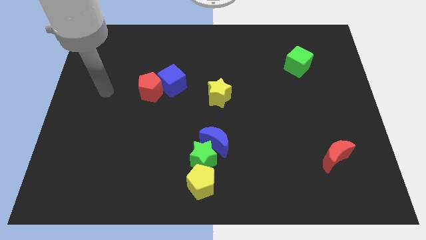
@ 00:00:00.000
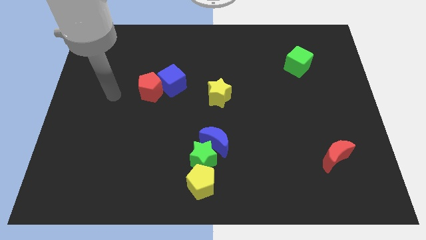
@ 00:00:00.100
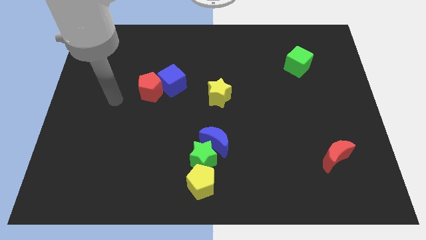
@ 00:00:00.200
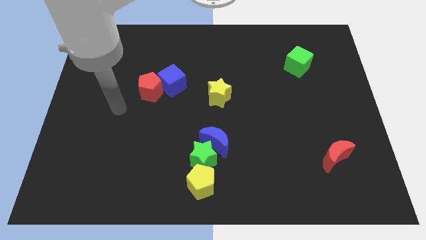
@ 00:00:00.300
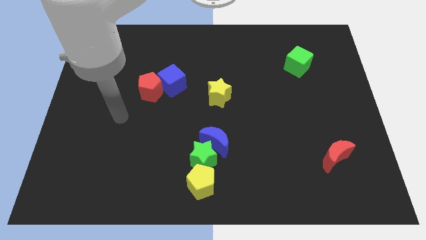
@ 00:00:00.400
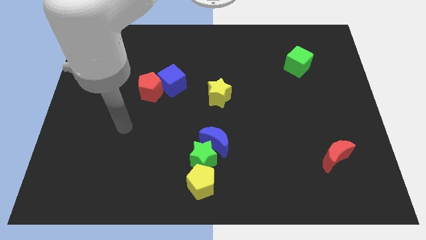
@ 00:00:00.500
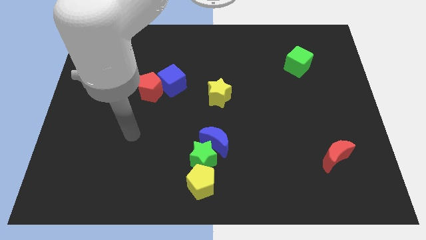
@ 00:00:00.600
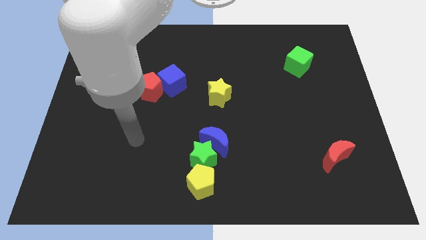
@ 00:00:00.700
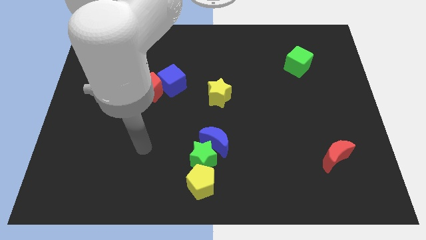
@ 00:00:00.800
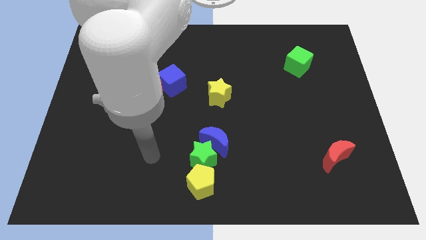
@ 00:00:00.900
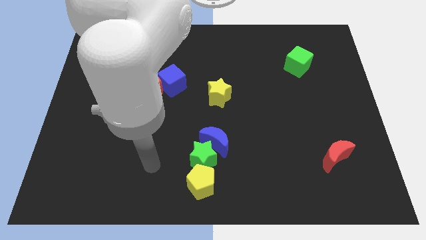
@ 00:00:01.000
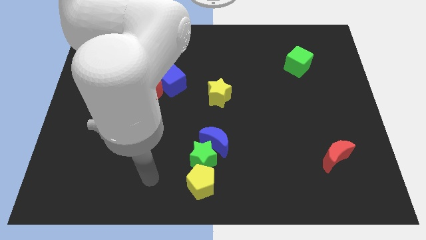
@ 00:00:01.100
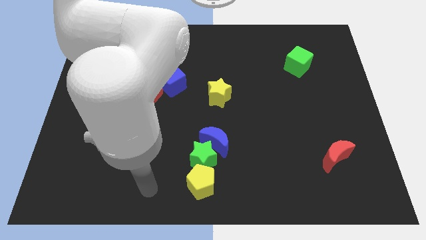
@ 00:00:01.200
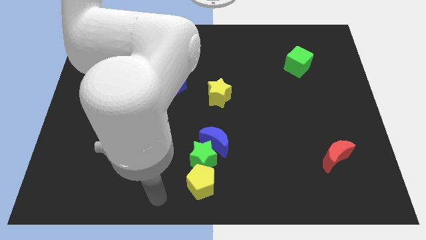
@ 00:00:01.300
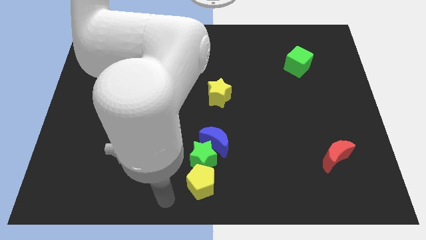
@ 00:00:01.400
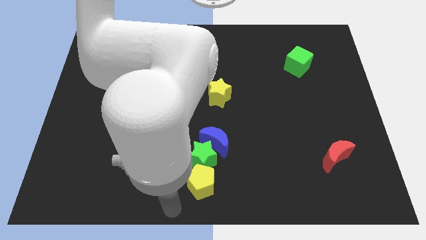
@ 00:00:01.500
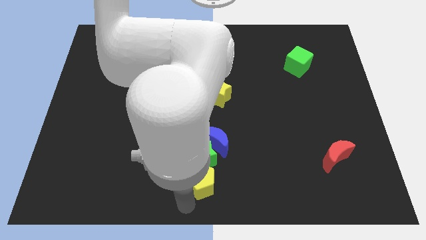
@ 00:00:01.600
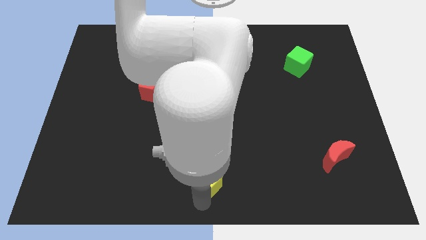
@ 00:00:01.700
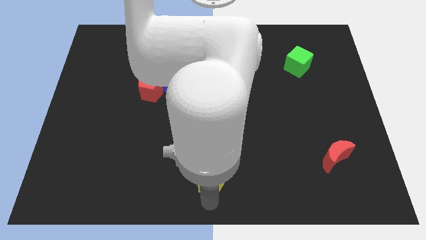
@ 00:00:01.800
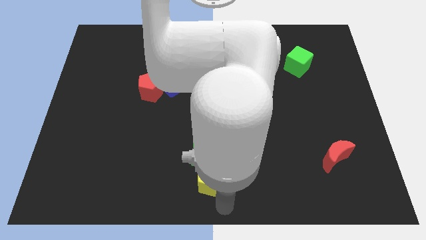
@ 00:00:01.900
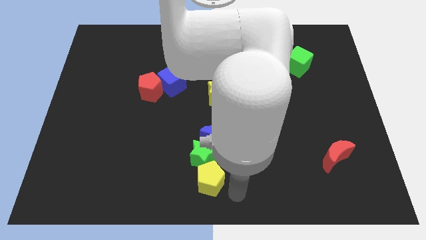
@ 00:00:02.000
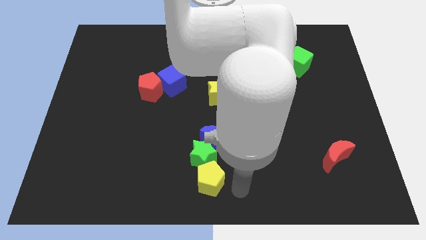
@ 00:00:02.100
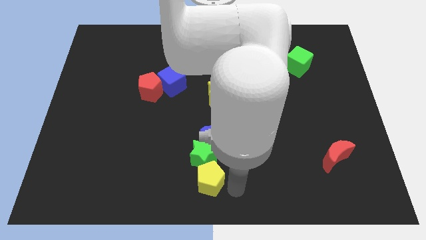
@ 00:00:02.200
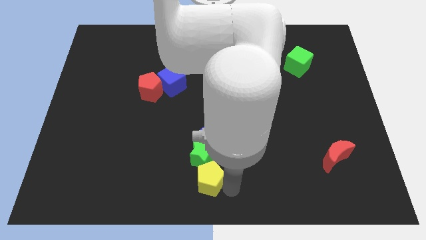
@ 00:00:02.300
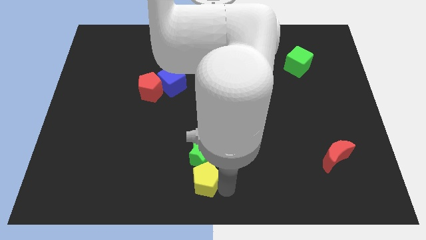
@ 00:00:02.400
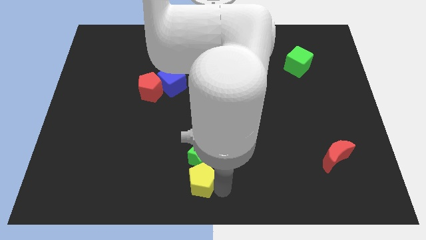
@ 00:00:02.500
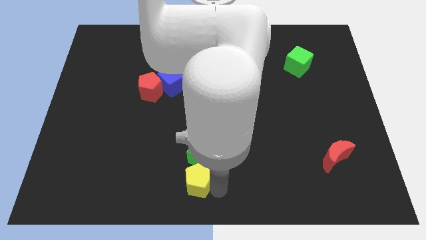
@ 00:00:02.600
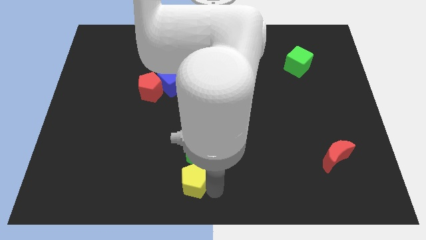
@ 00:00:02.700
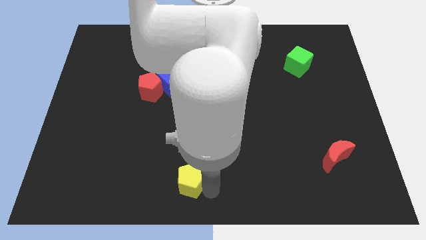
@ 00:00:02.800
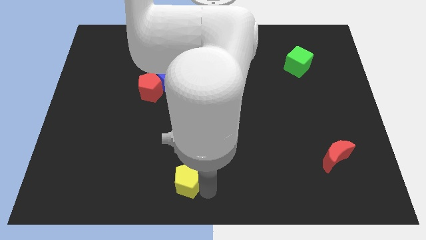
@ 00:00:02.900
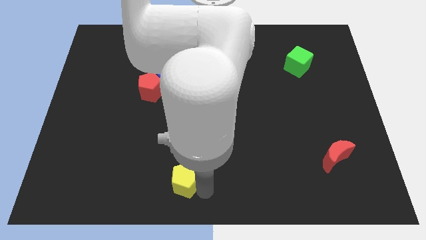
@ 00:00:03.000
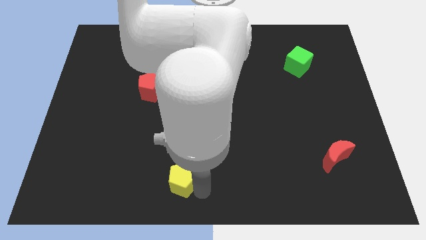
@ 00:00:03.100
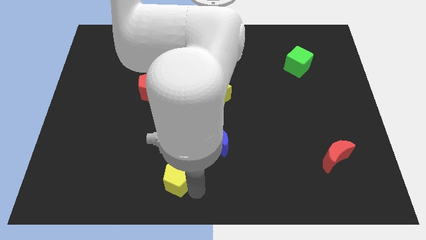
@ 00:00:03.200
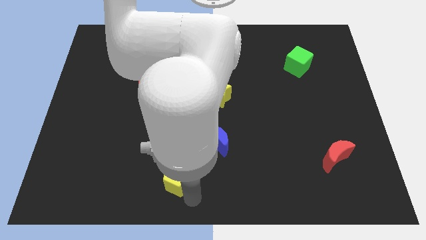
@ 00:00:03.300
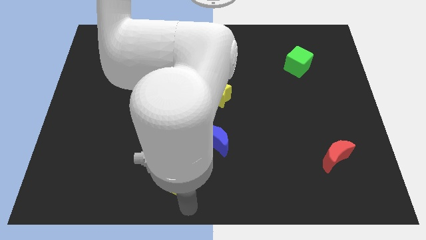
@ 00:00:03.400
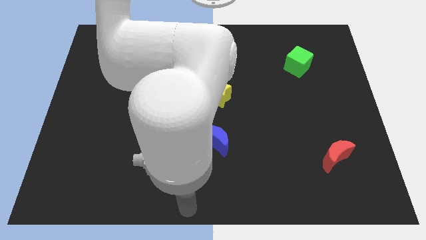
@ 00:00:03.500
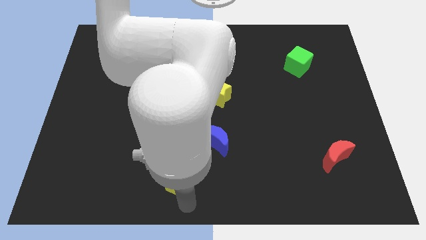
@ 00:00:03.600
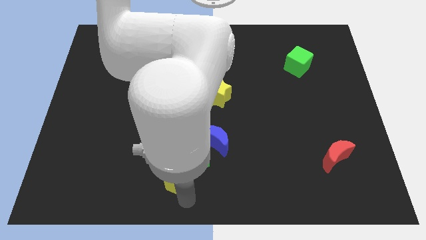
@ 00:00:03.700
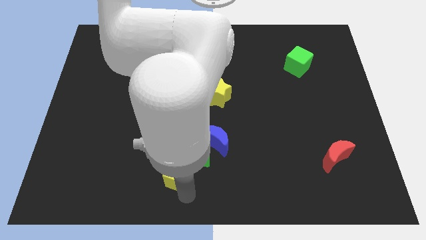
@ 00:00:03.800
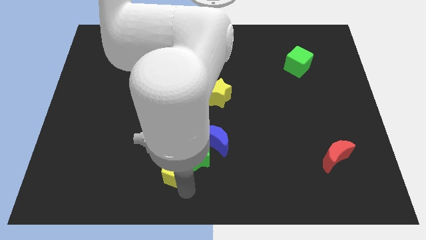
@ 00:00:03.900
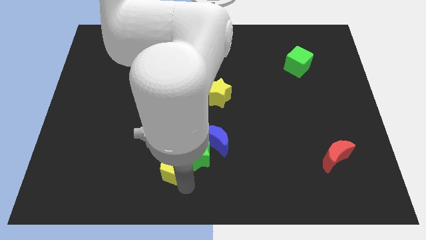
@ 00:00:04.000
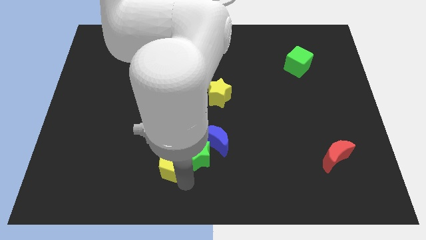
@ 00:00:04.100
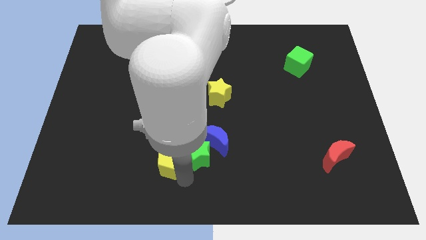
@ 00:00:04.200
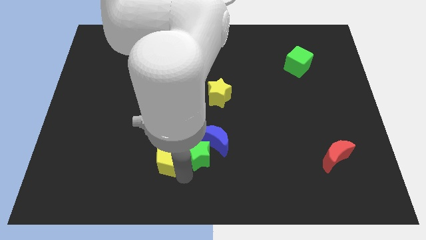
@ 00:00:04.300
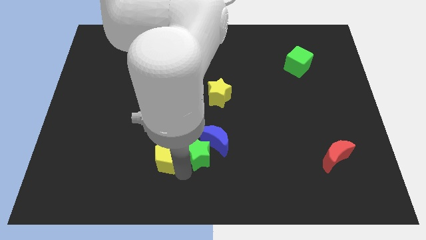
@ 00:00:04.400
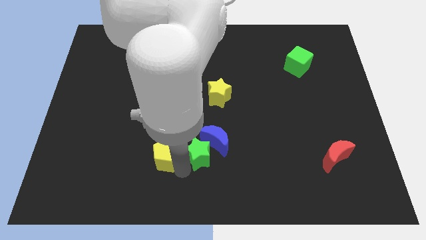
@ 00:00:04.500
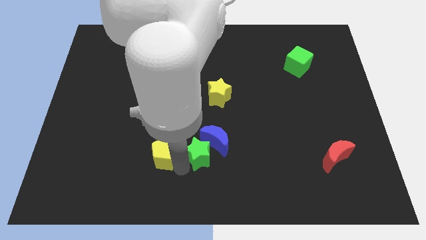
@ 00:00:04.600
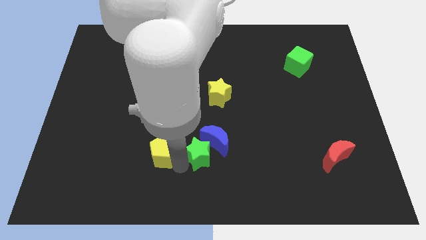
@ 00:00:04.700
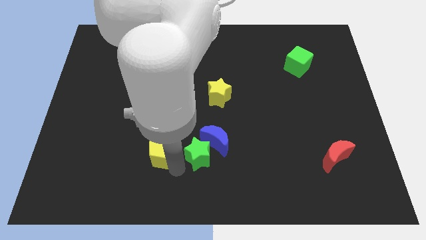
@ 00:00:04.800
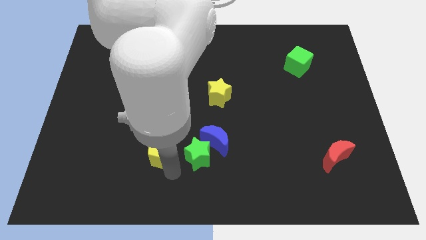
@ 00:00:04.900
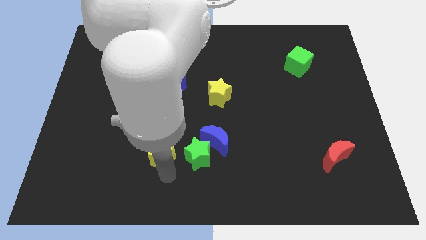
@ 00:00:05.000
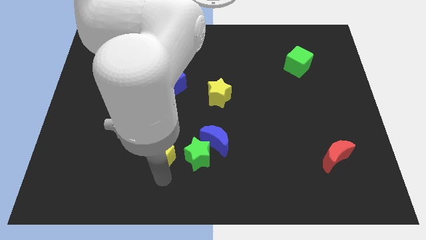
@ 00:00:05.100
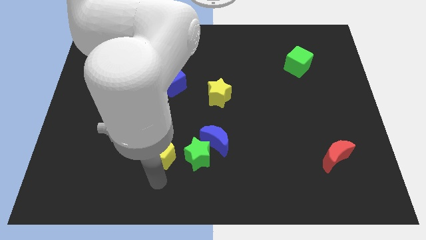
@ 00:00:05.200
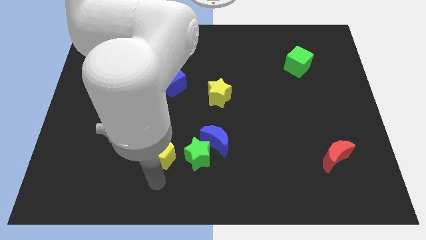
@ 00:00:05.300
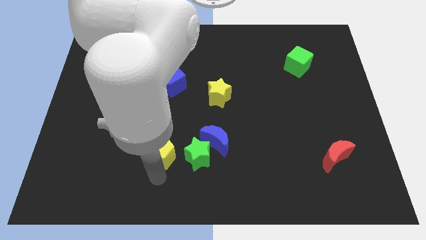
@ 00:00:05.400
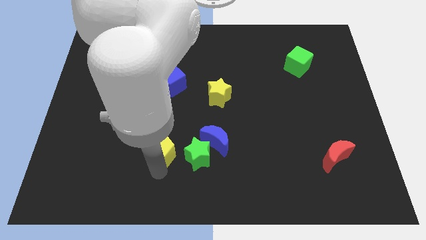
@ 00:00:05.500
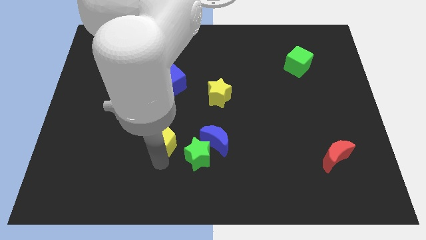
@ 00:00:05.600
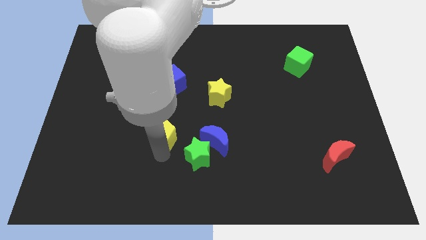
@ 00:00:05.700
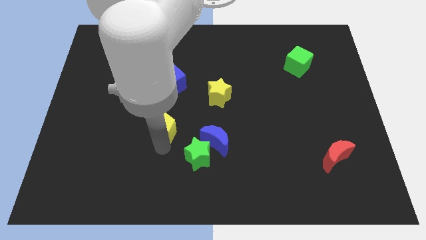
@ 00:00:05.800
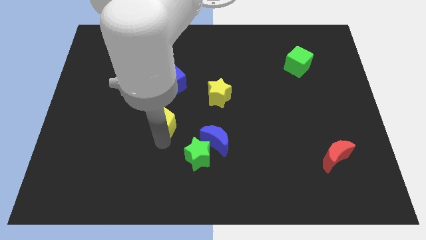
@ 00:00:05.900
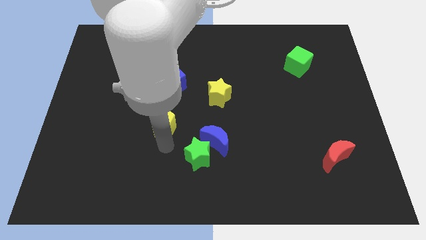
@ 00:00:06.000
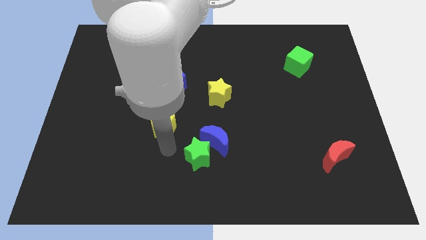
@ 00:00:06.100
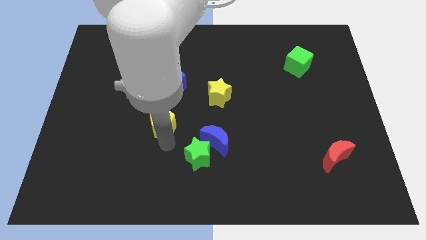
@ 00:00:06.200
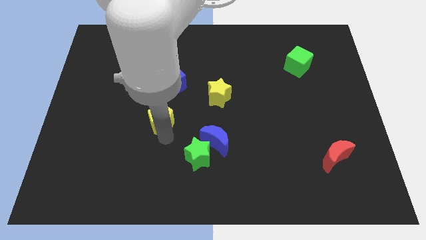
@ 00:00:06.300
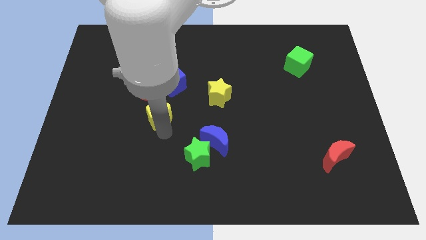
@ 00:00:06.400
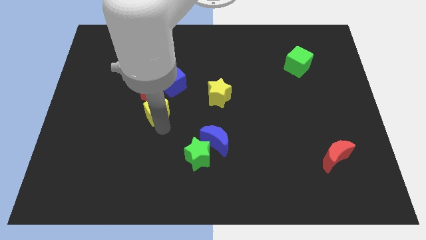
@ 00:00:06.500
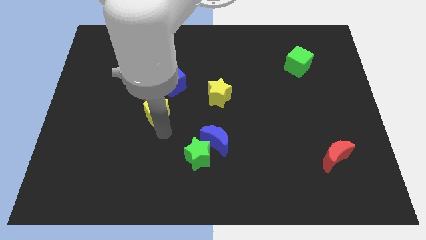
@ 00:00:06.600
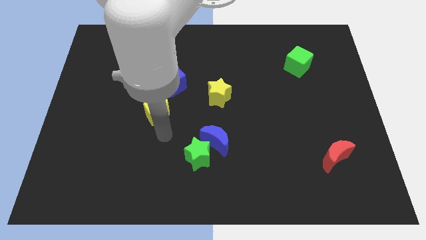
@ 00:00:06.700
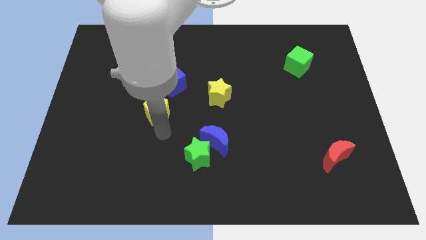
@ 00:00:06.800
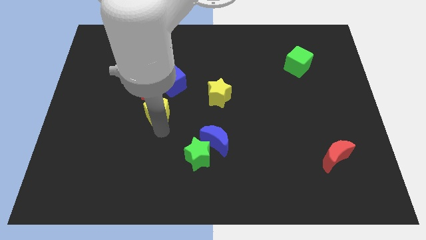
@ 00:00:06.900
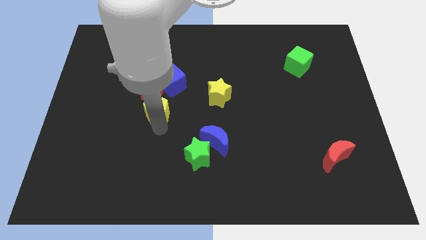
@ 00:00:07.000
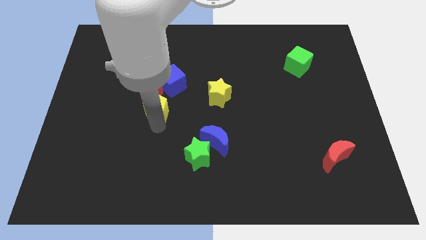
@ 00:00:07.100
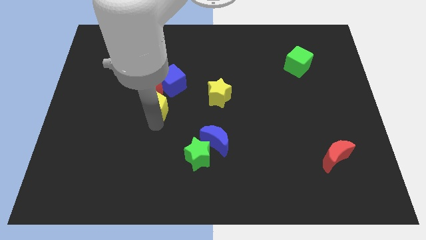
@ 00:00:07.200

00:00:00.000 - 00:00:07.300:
push the yellow pentagon to the red pentagon

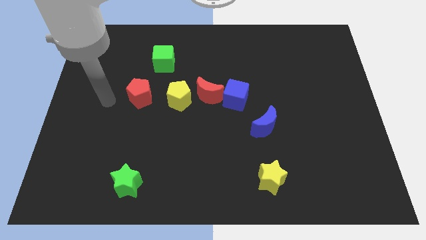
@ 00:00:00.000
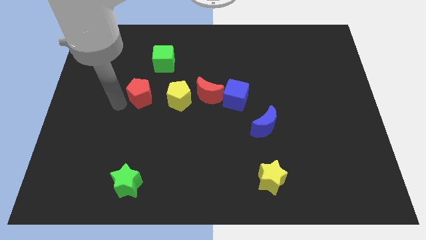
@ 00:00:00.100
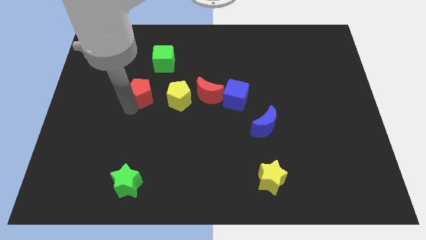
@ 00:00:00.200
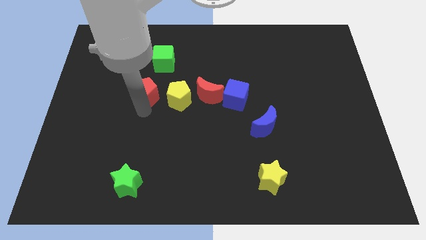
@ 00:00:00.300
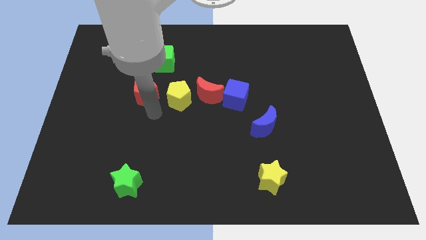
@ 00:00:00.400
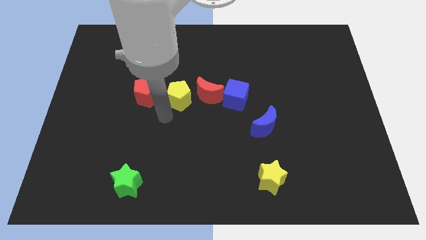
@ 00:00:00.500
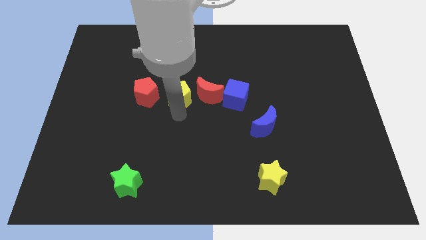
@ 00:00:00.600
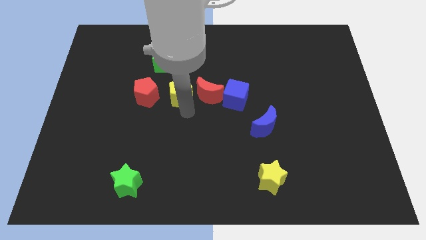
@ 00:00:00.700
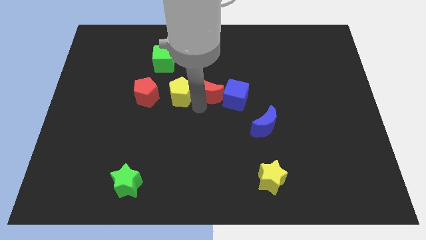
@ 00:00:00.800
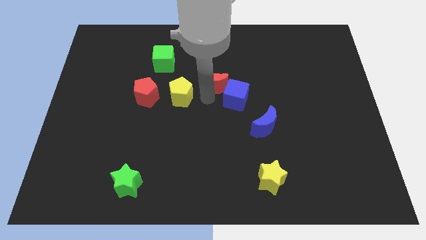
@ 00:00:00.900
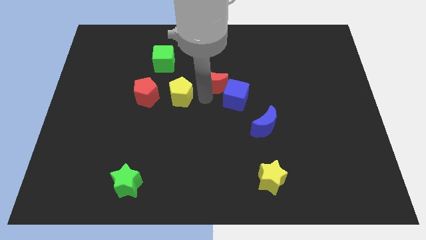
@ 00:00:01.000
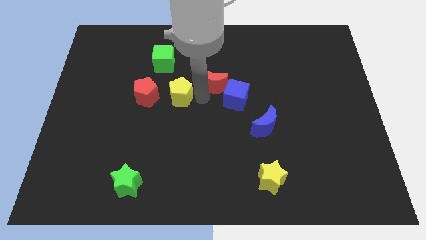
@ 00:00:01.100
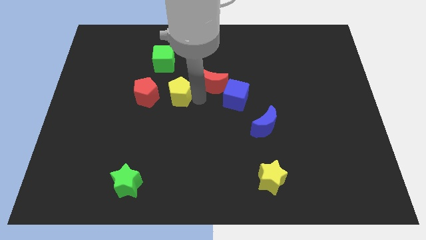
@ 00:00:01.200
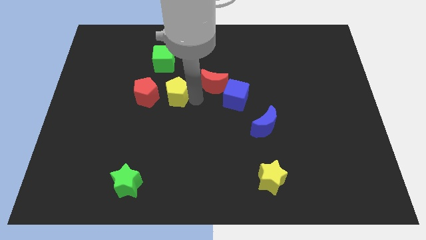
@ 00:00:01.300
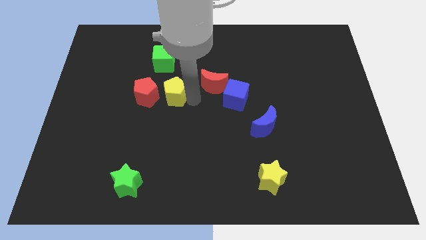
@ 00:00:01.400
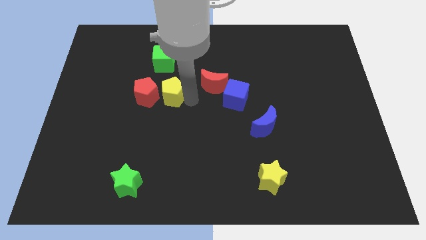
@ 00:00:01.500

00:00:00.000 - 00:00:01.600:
push the yellow pentagon towards the red pentagon
